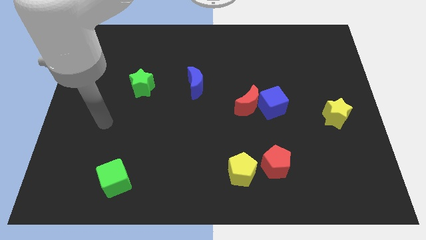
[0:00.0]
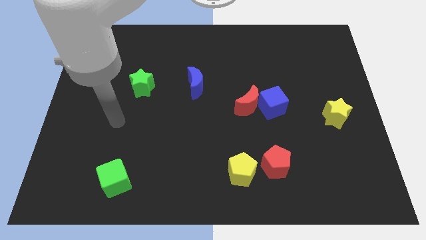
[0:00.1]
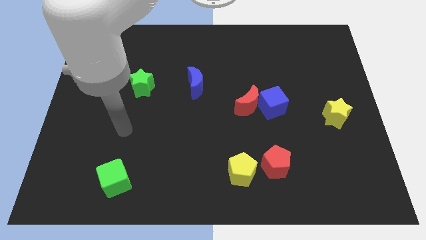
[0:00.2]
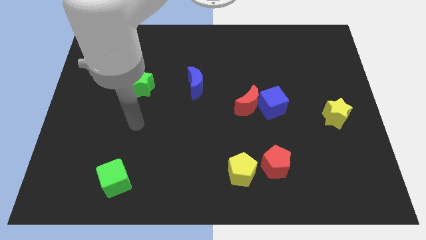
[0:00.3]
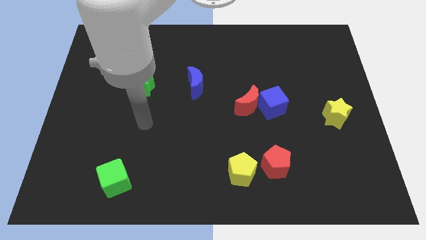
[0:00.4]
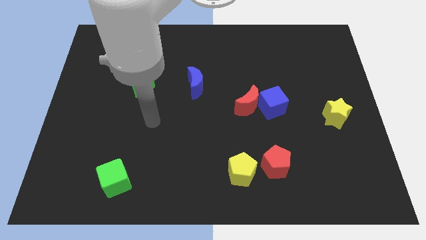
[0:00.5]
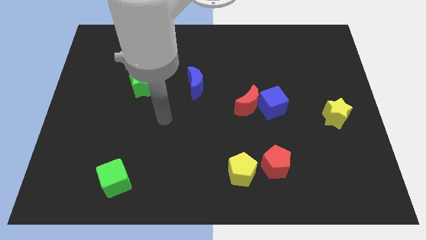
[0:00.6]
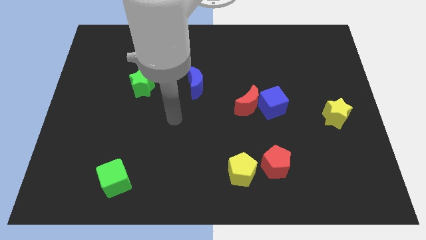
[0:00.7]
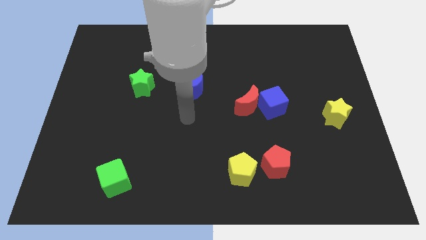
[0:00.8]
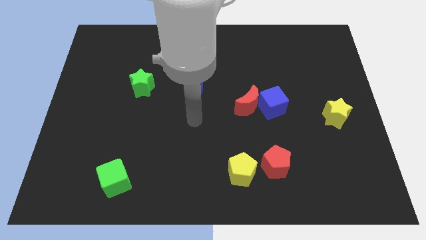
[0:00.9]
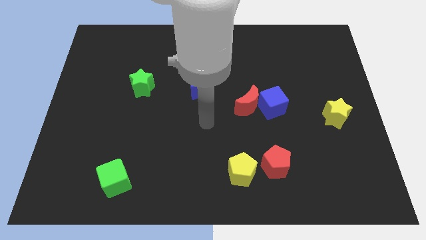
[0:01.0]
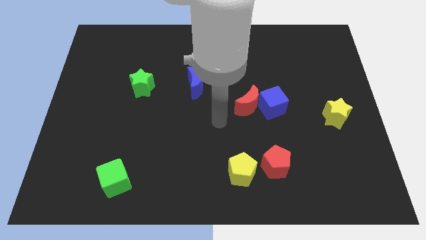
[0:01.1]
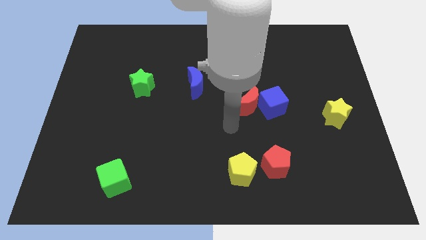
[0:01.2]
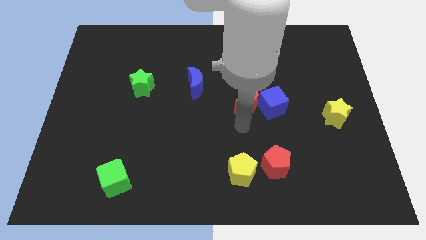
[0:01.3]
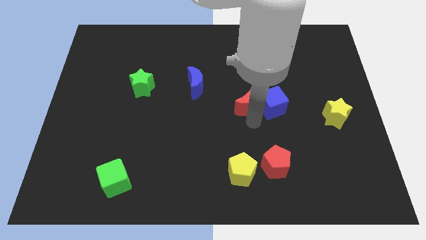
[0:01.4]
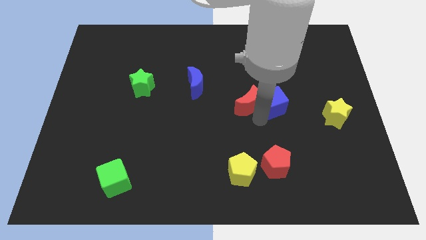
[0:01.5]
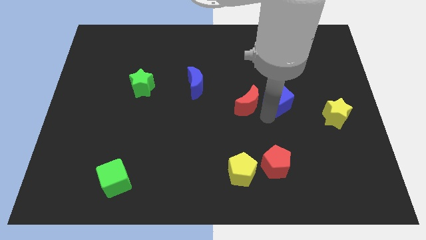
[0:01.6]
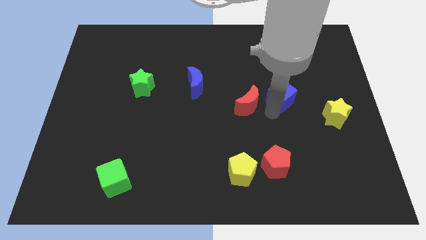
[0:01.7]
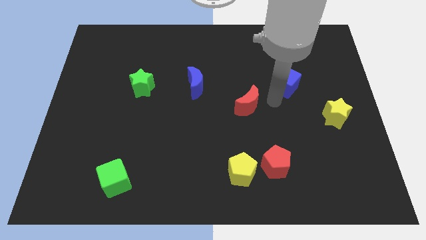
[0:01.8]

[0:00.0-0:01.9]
move the red moon away from the blue cube

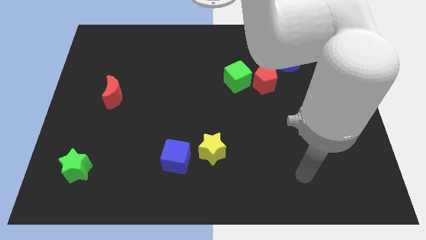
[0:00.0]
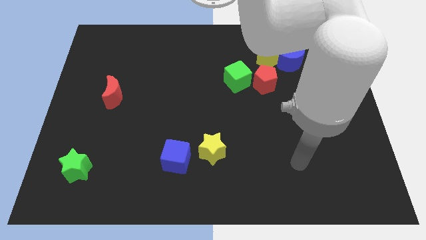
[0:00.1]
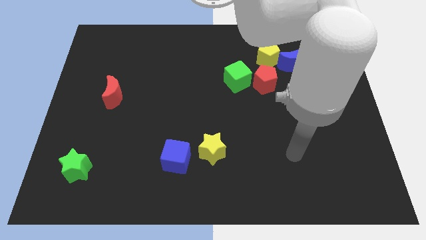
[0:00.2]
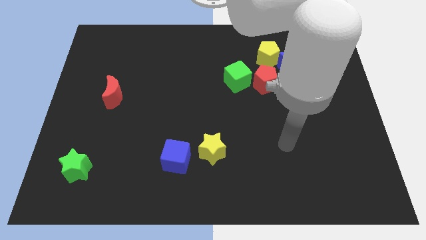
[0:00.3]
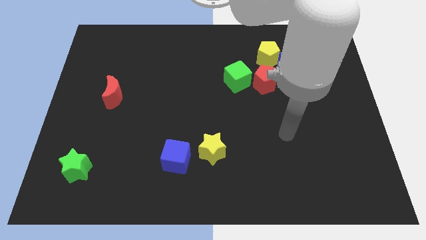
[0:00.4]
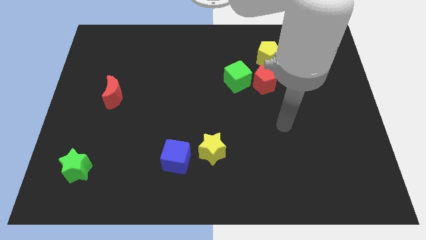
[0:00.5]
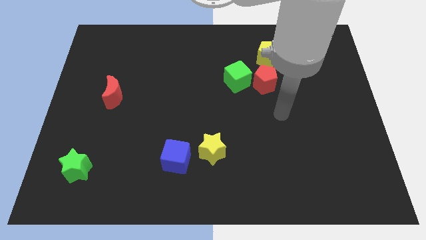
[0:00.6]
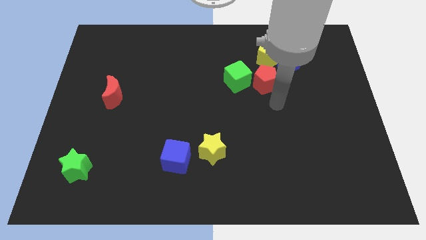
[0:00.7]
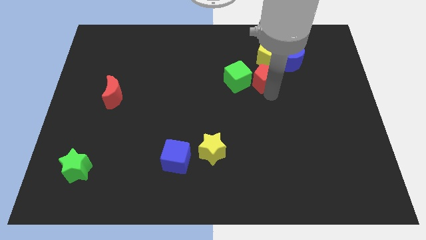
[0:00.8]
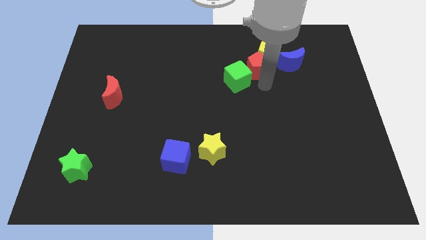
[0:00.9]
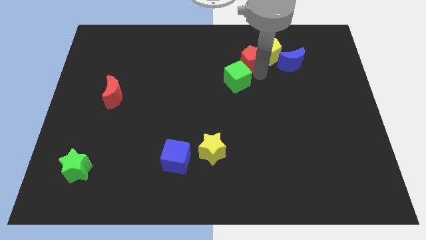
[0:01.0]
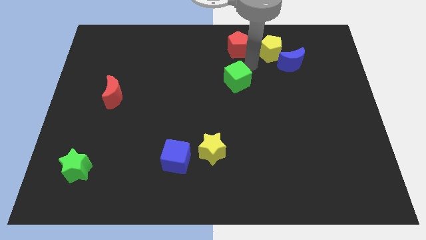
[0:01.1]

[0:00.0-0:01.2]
move the green cube away from the red pentagon

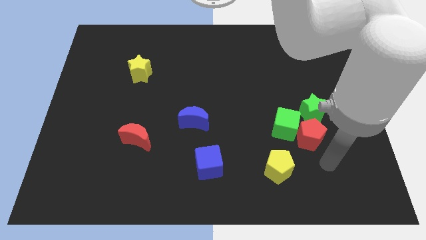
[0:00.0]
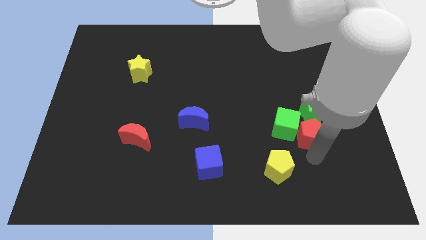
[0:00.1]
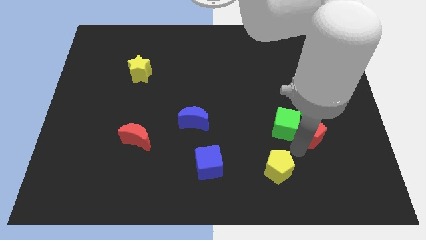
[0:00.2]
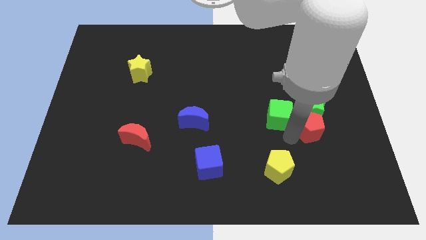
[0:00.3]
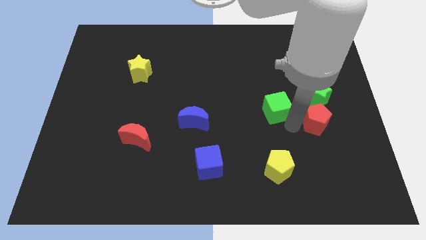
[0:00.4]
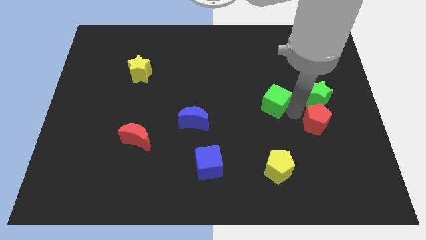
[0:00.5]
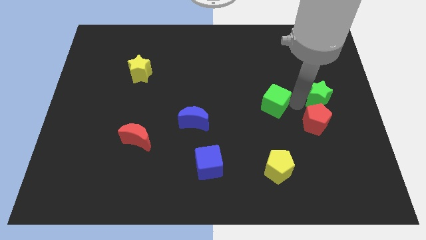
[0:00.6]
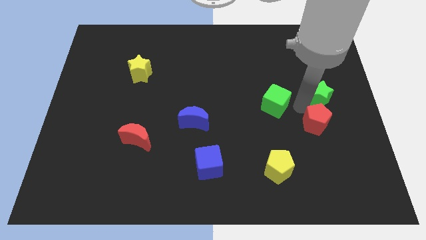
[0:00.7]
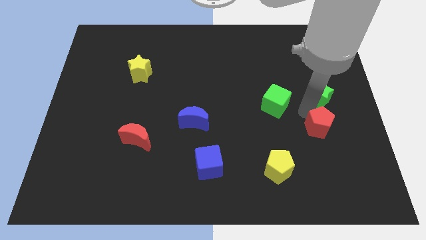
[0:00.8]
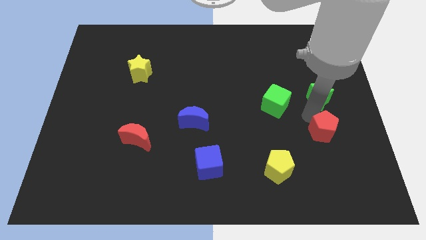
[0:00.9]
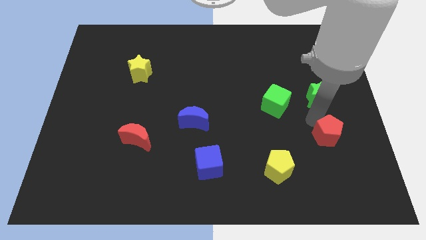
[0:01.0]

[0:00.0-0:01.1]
move the red pentagon away from the green cube and green star

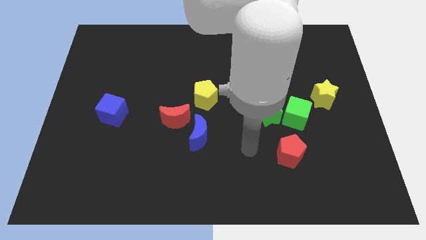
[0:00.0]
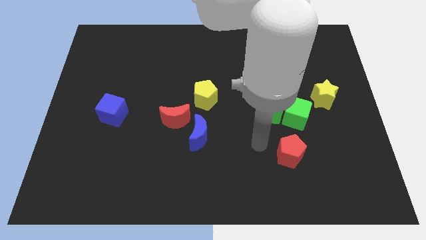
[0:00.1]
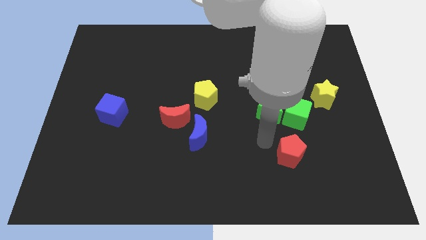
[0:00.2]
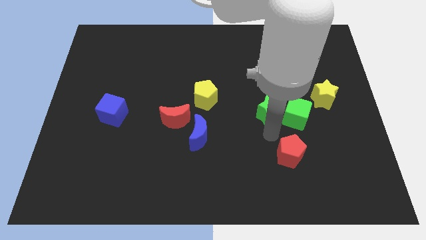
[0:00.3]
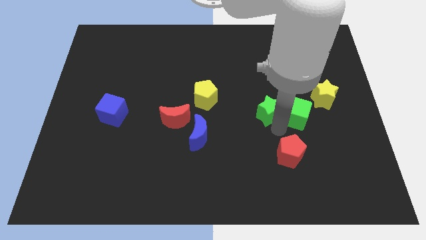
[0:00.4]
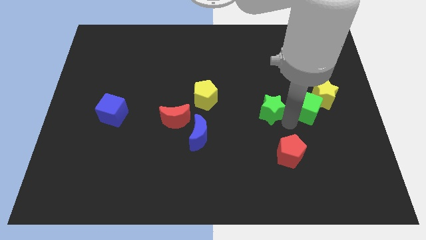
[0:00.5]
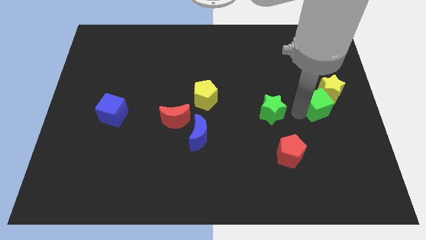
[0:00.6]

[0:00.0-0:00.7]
pull the green star apart from the green cube

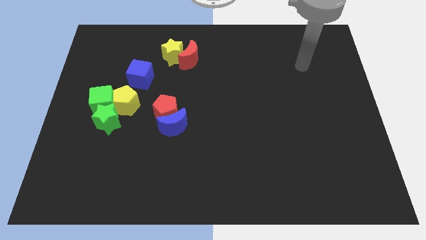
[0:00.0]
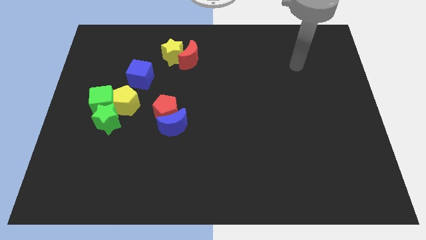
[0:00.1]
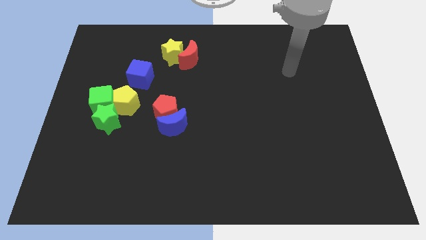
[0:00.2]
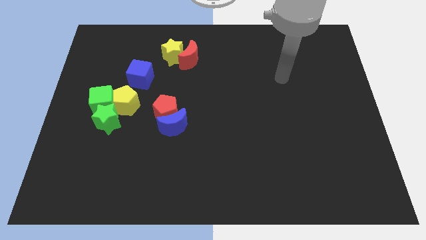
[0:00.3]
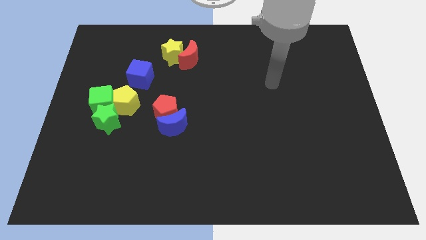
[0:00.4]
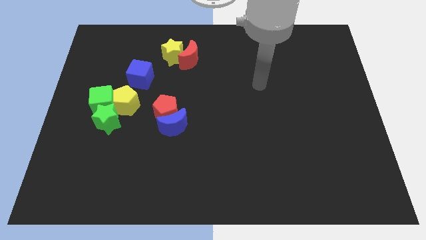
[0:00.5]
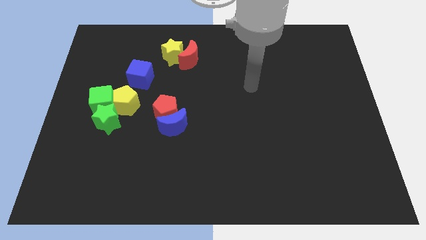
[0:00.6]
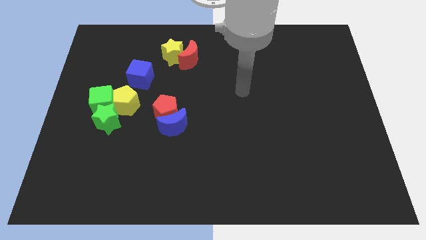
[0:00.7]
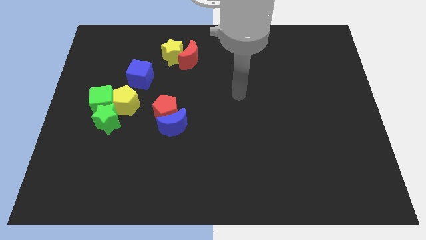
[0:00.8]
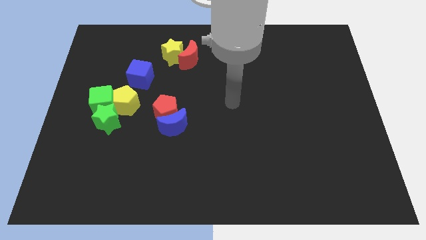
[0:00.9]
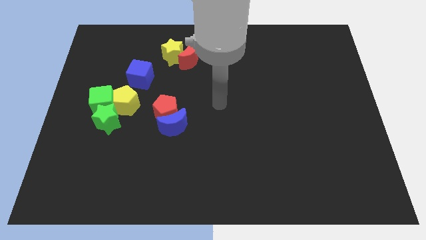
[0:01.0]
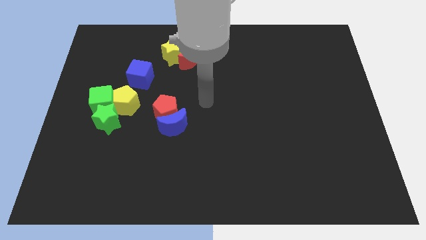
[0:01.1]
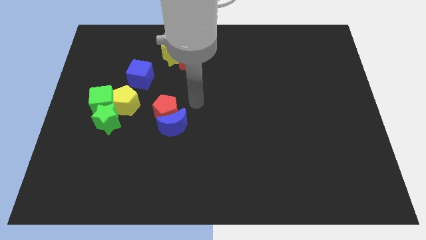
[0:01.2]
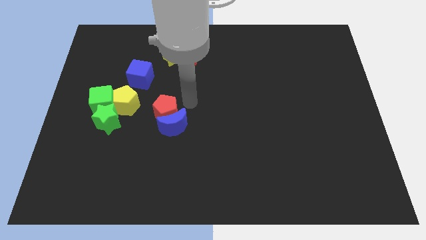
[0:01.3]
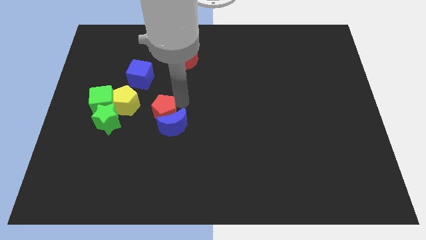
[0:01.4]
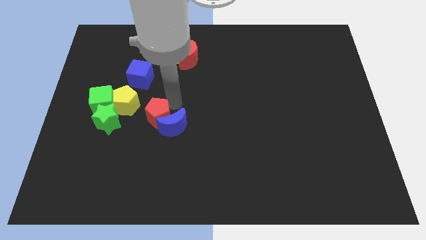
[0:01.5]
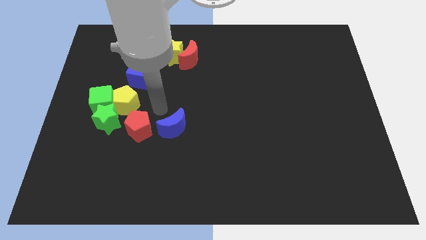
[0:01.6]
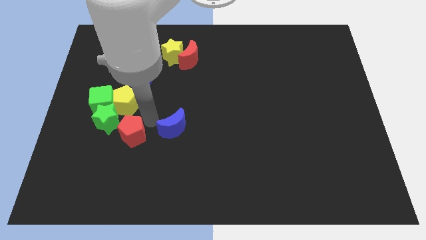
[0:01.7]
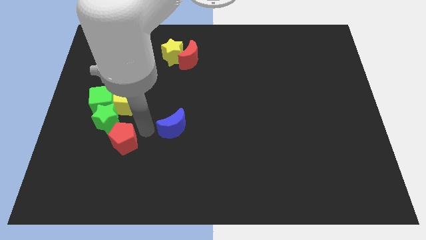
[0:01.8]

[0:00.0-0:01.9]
separate the blue moon from the red pentagon

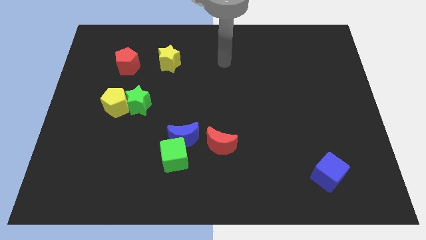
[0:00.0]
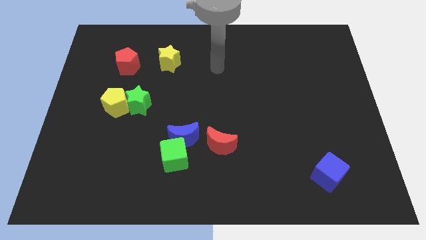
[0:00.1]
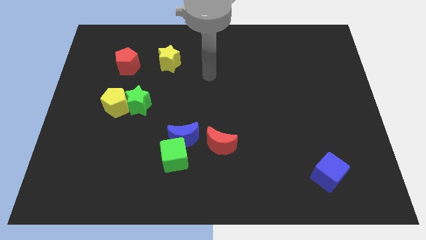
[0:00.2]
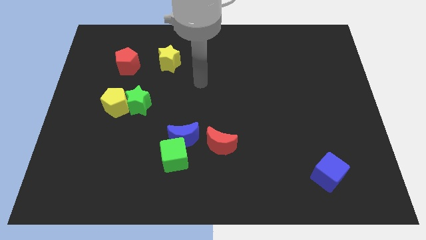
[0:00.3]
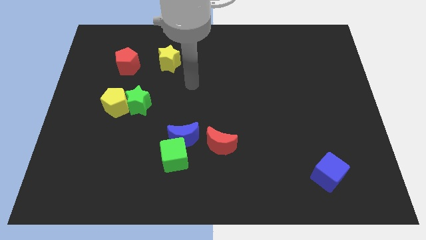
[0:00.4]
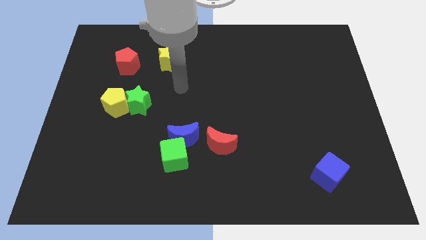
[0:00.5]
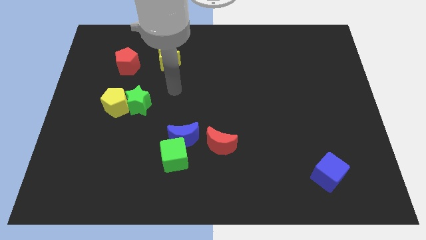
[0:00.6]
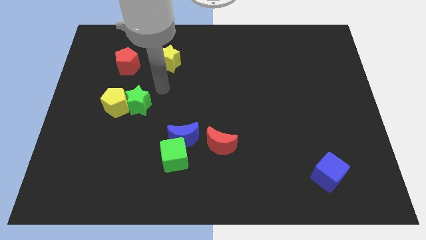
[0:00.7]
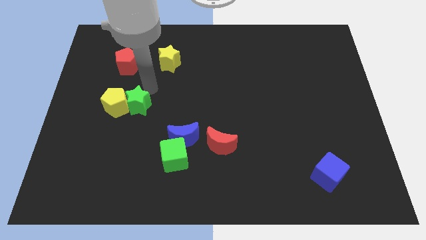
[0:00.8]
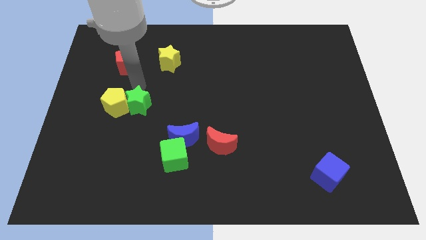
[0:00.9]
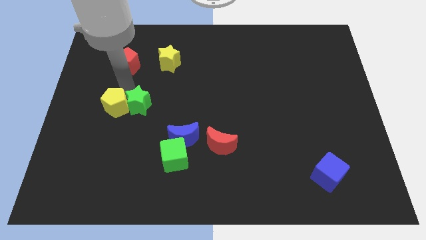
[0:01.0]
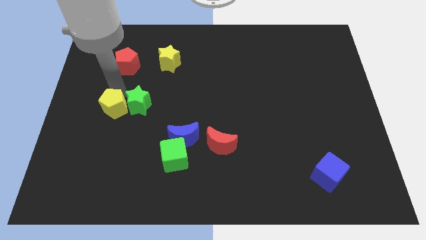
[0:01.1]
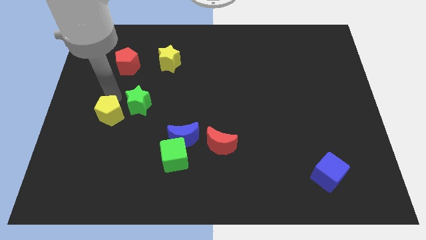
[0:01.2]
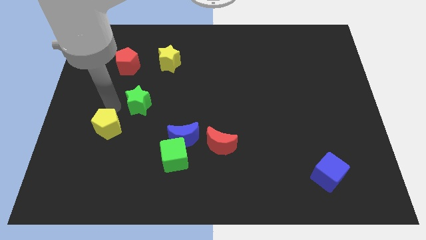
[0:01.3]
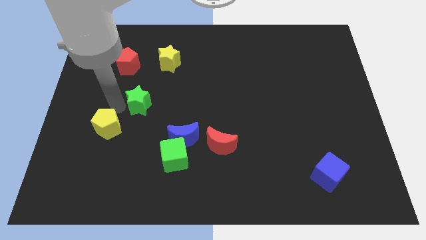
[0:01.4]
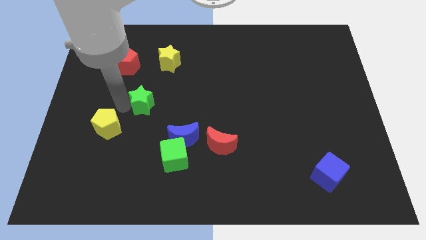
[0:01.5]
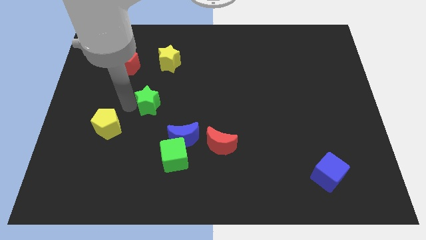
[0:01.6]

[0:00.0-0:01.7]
move the green star away from the yellow pentagon

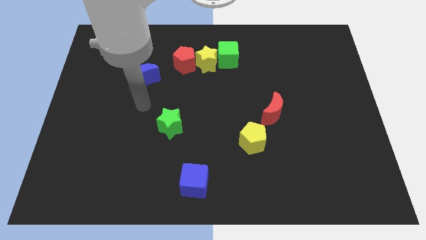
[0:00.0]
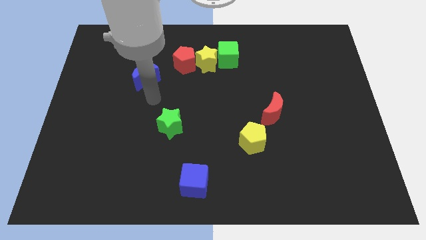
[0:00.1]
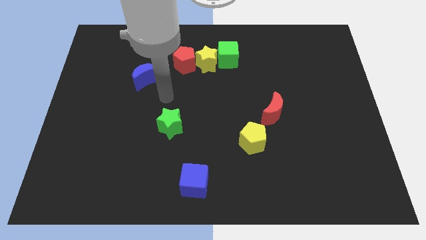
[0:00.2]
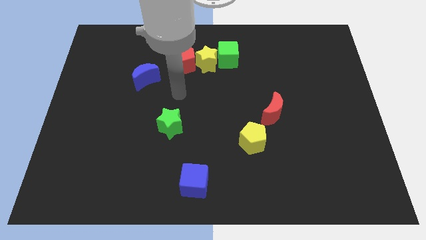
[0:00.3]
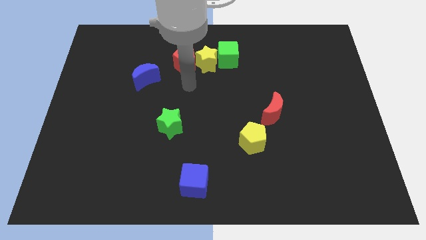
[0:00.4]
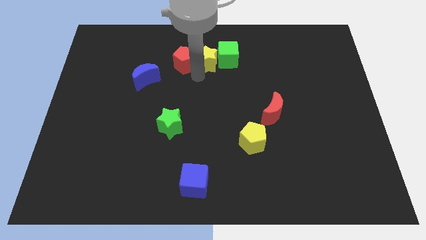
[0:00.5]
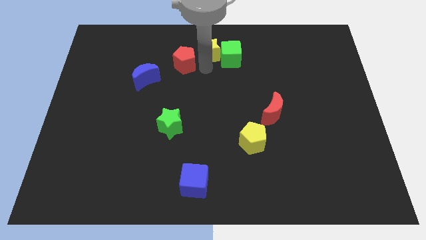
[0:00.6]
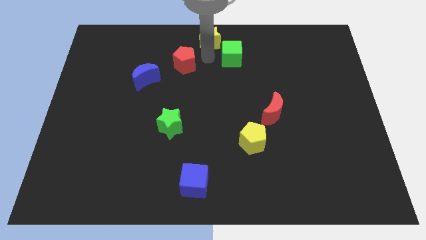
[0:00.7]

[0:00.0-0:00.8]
pull the red pentagon apart from the yellow star
